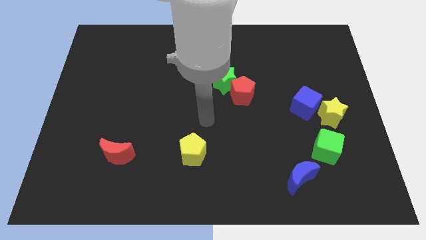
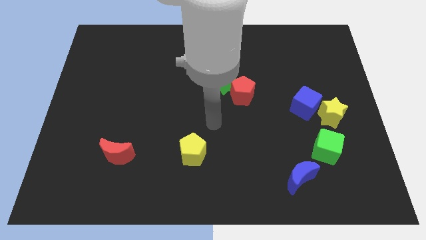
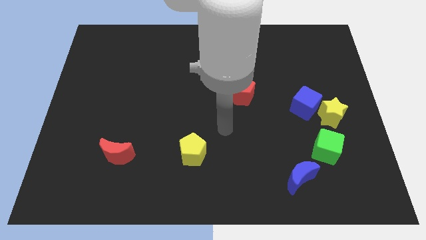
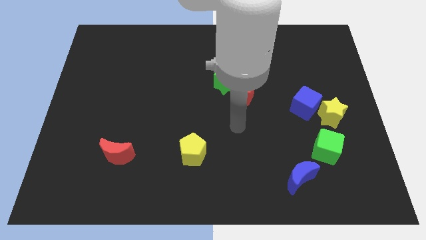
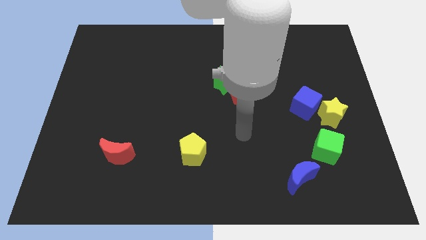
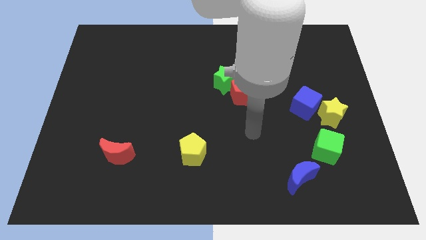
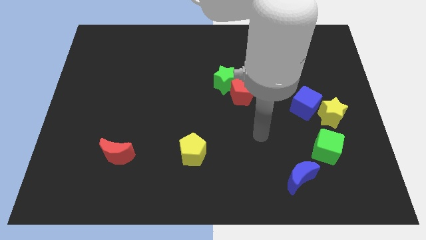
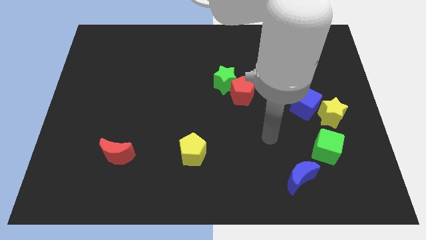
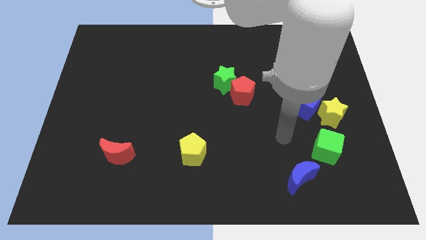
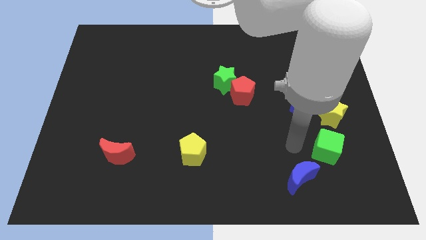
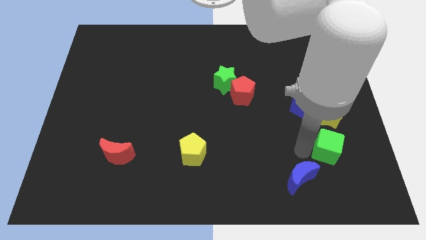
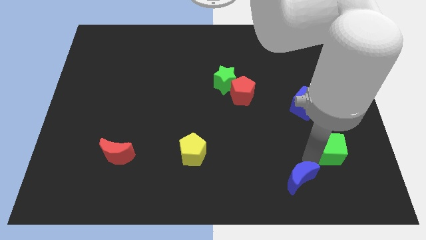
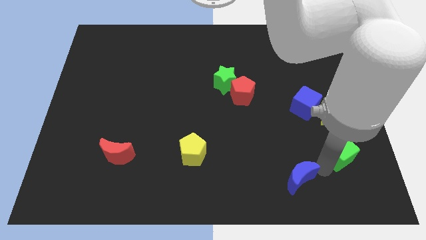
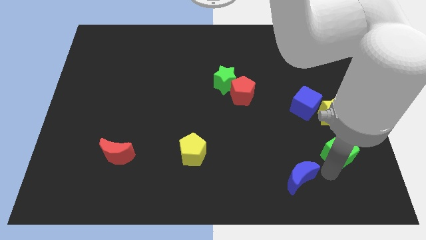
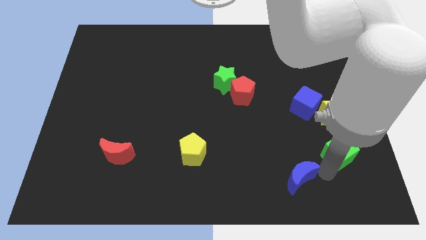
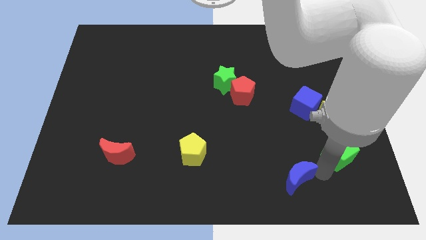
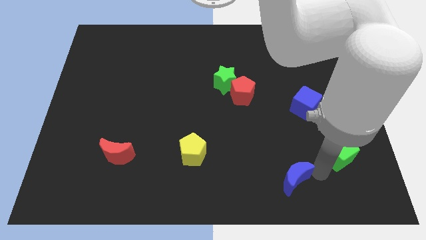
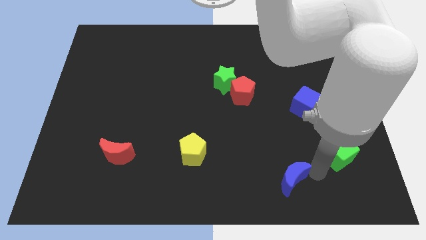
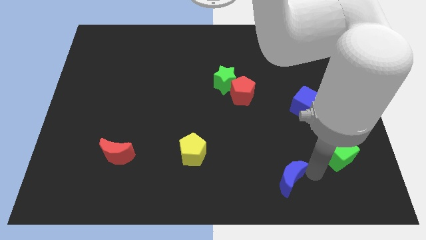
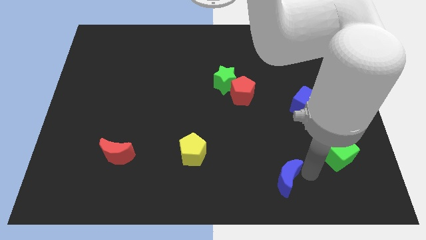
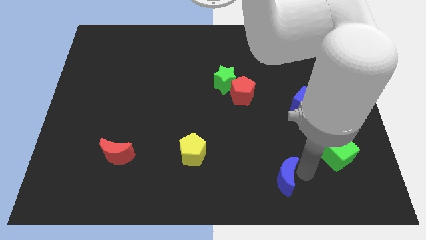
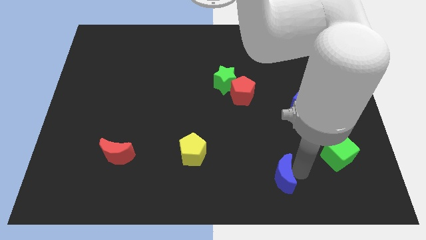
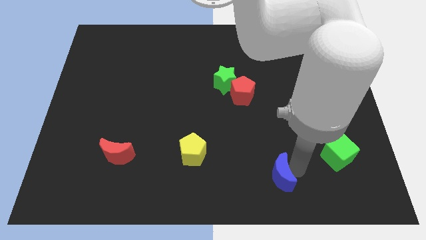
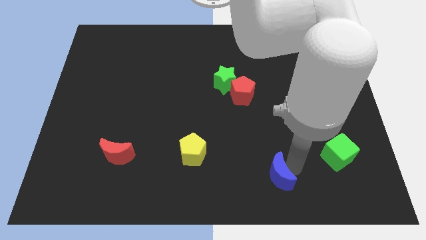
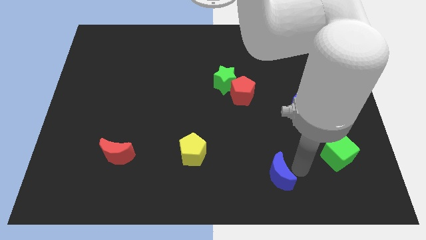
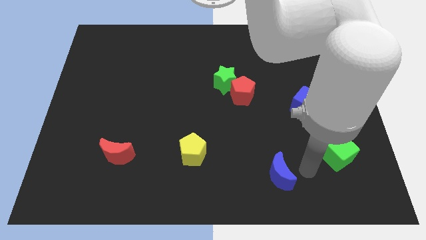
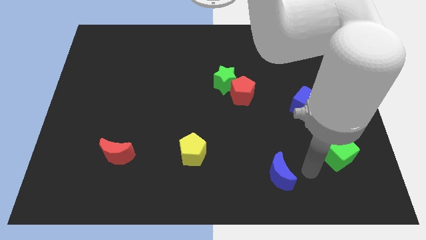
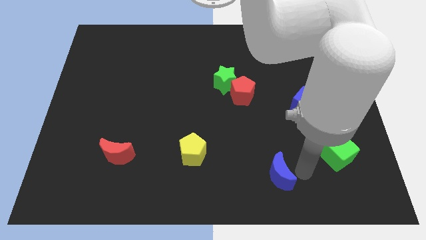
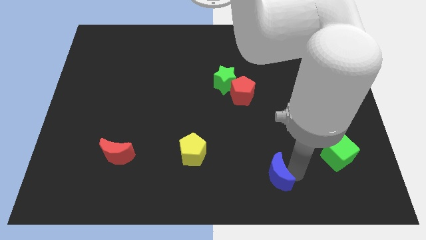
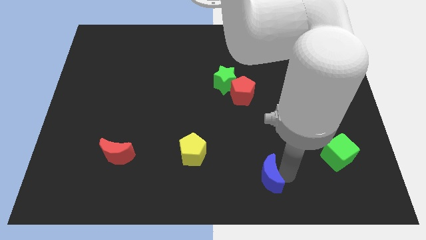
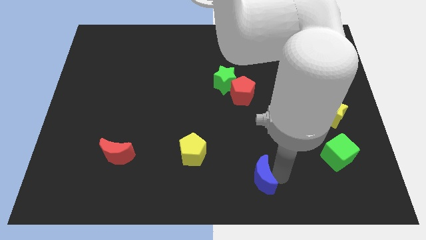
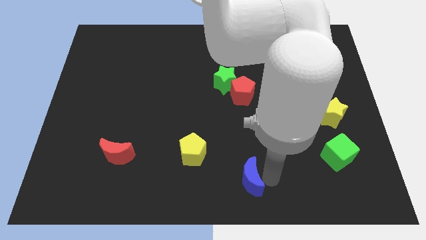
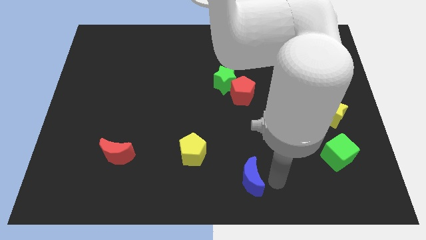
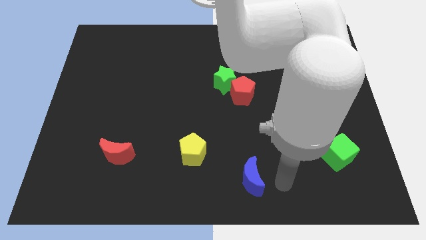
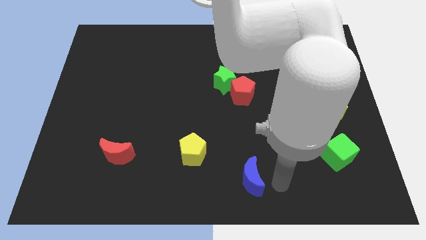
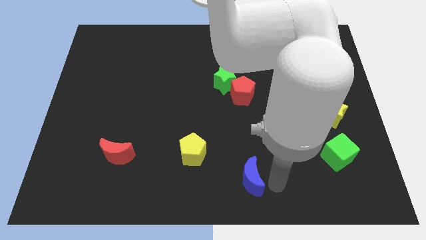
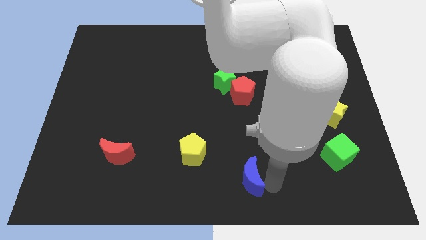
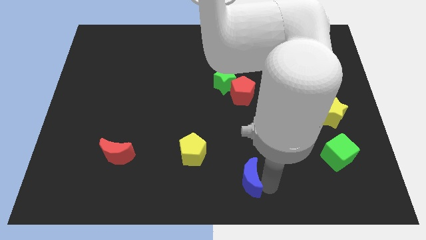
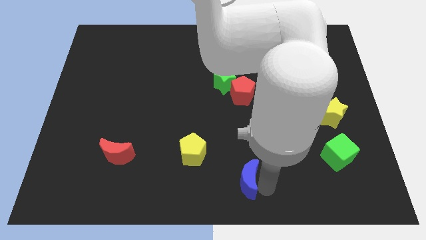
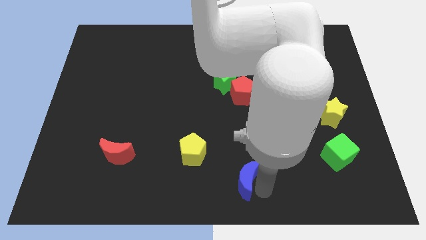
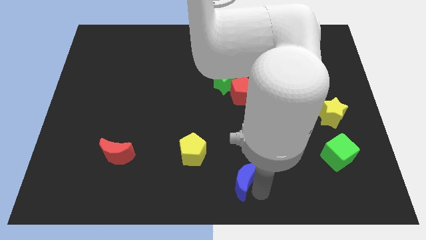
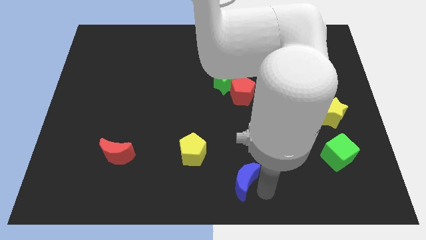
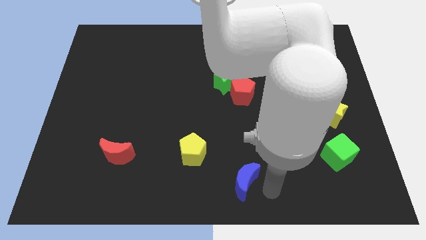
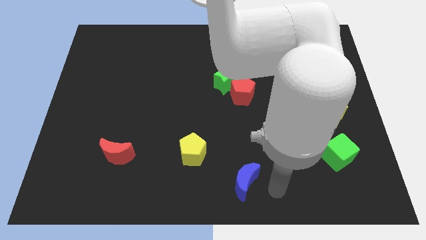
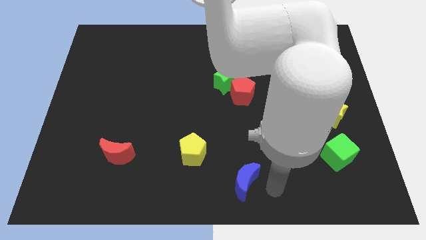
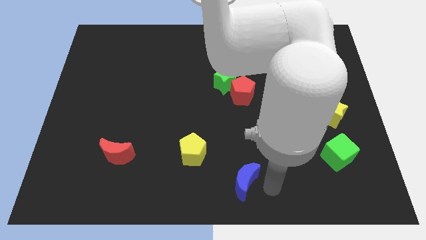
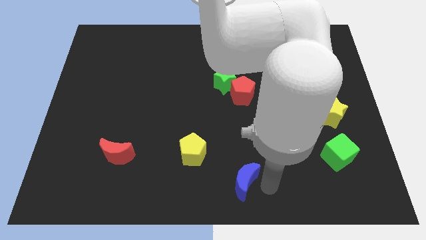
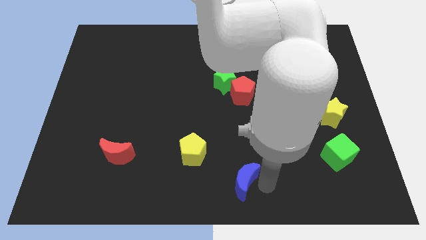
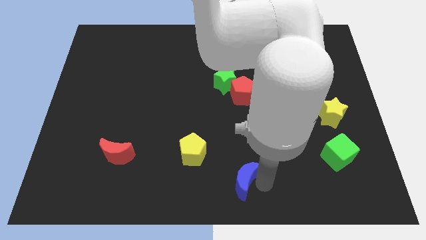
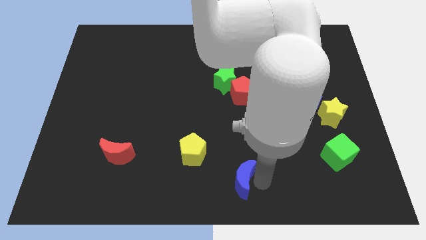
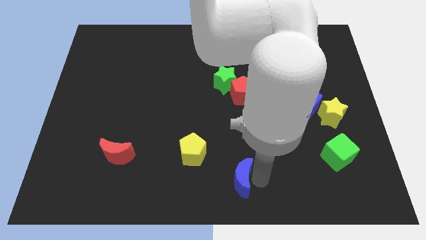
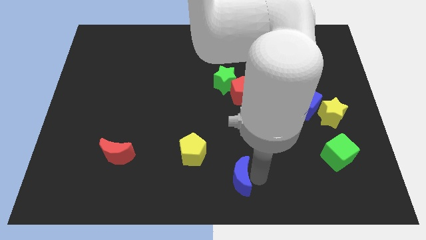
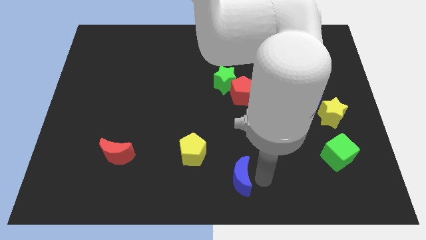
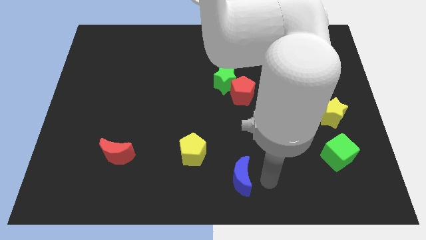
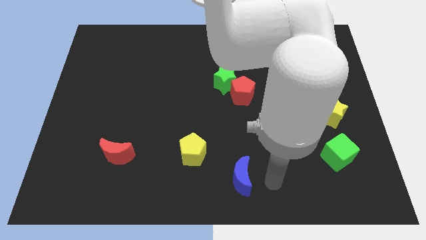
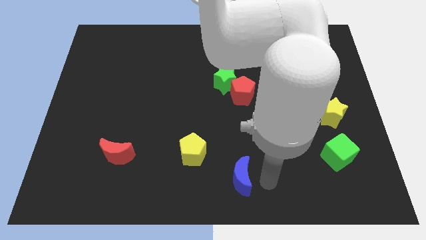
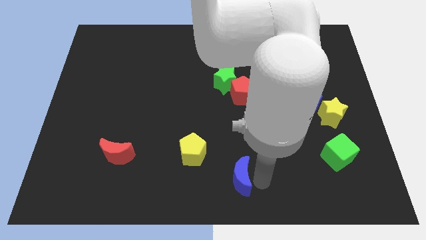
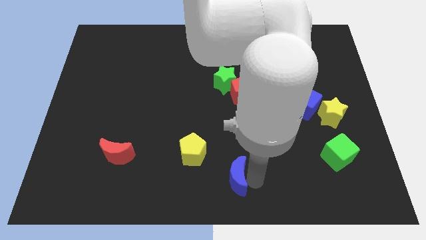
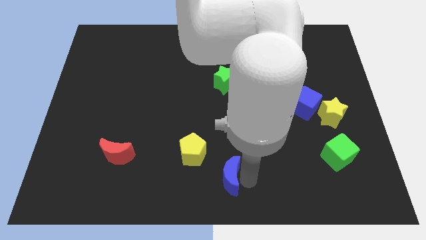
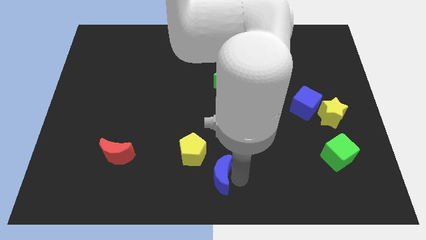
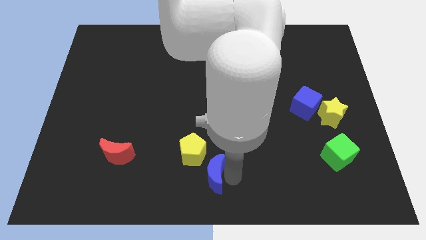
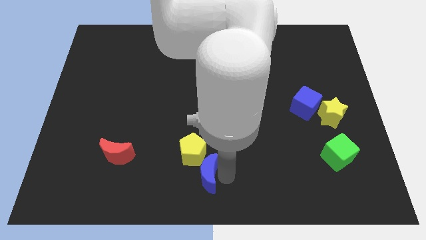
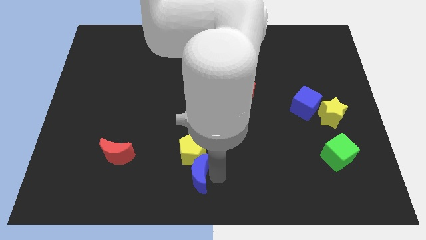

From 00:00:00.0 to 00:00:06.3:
slide the blue moon to the left

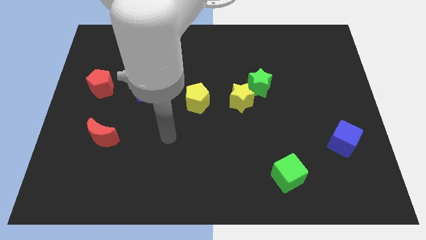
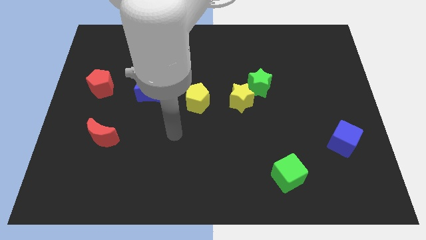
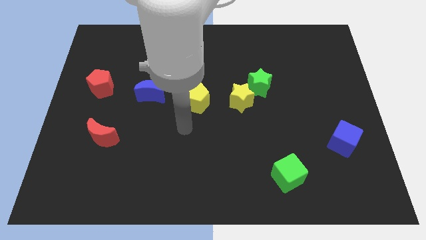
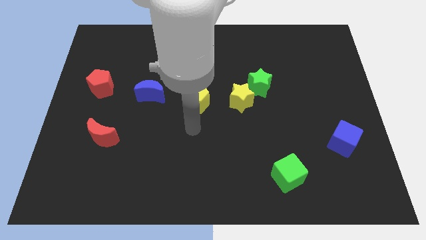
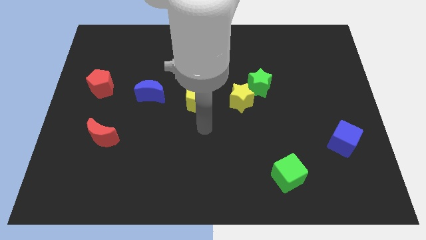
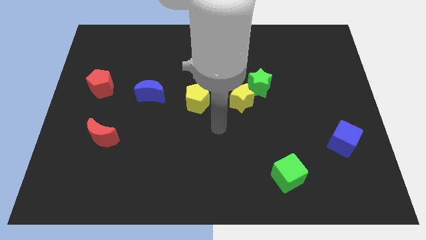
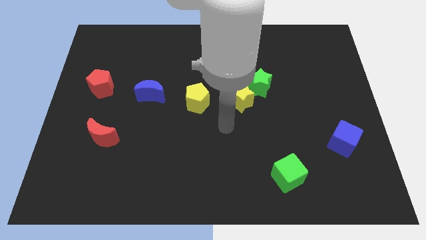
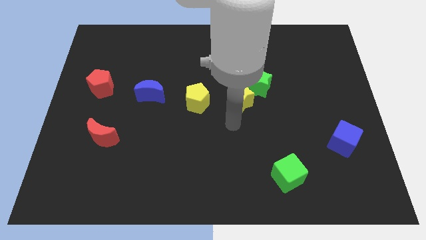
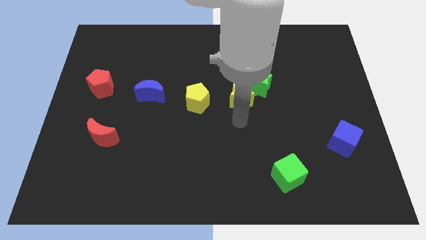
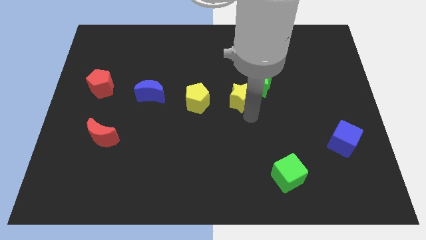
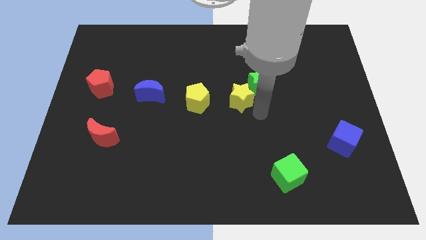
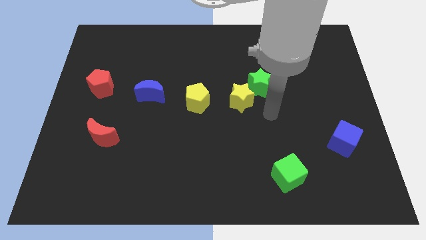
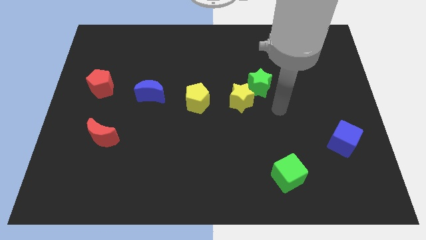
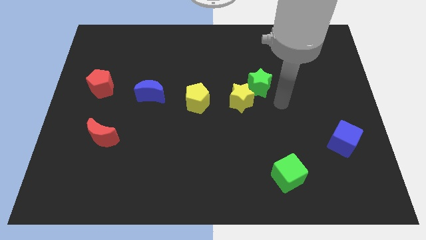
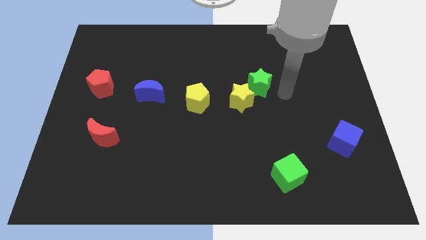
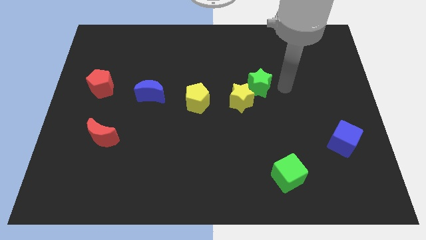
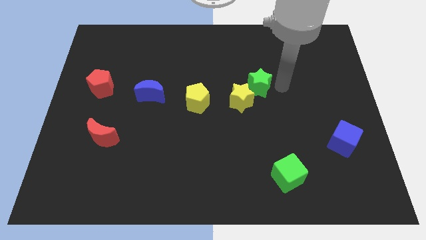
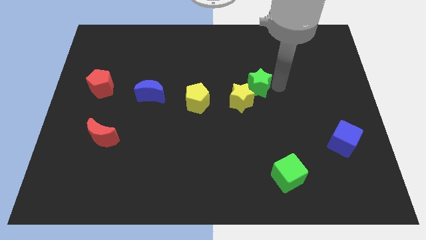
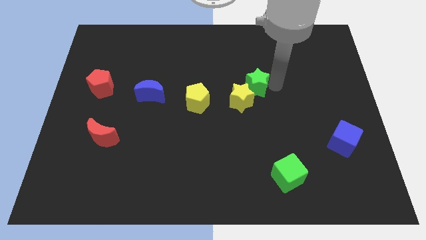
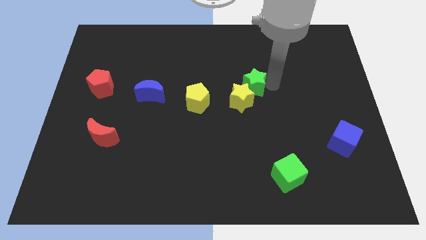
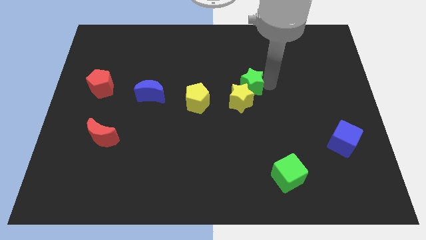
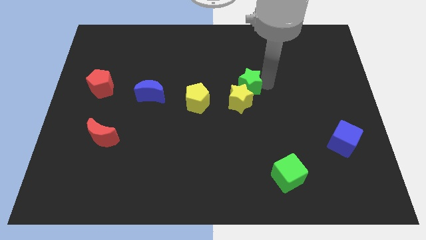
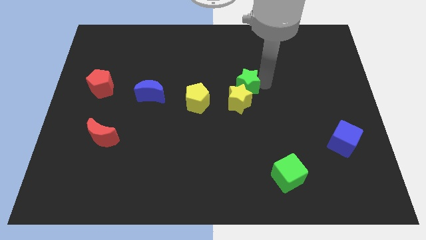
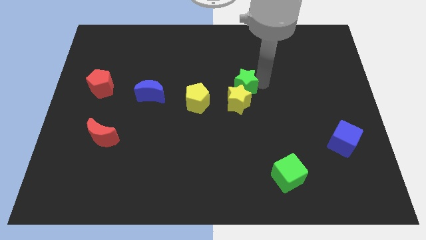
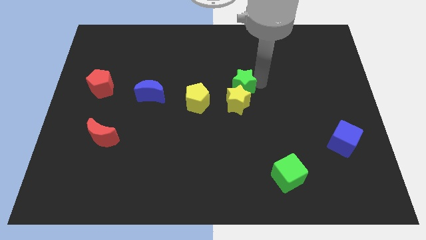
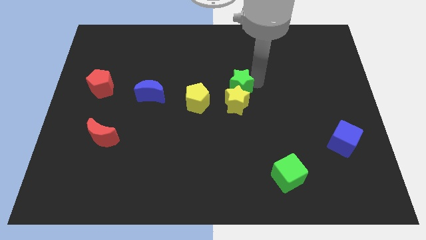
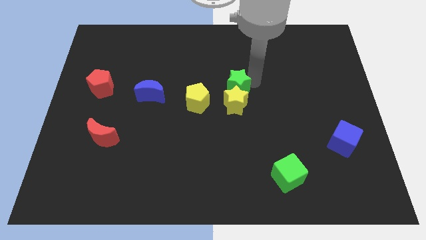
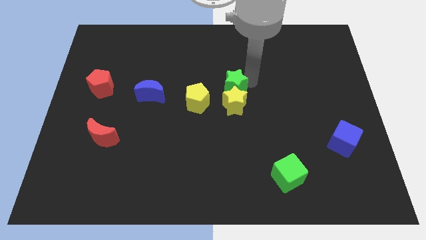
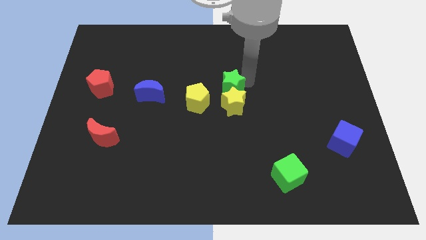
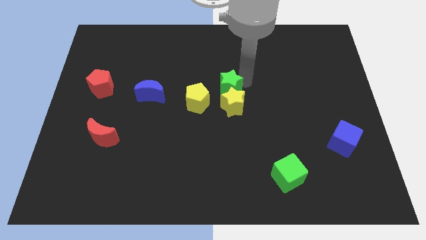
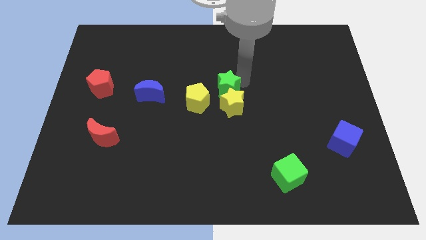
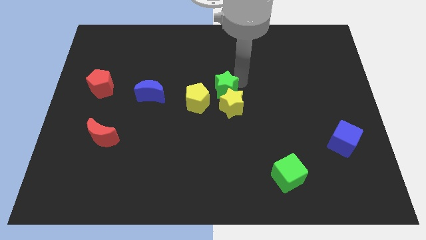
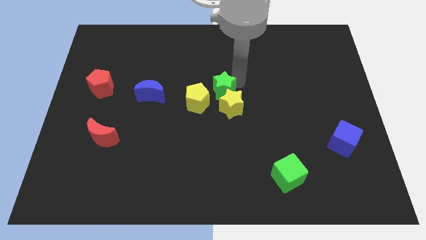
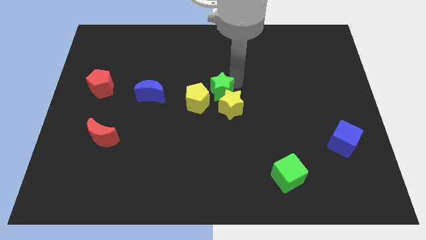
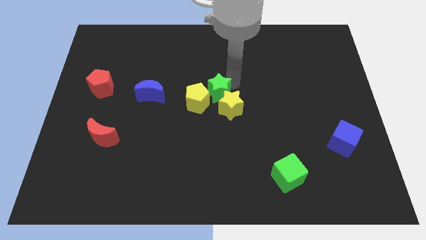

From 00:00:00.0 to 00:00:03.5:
push the green star a bit downwards and left diagonally
